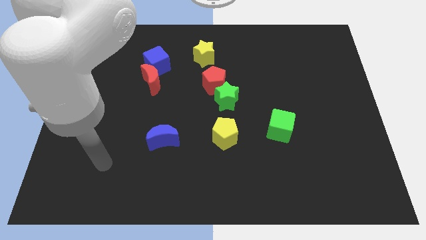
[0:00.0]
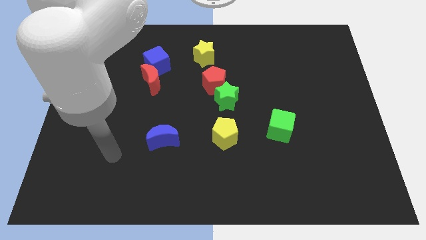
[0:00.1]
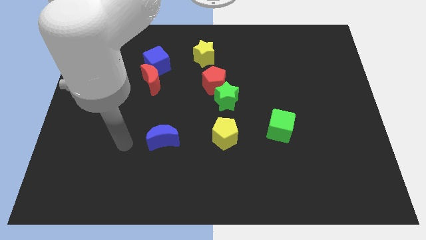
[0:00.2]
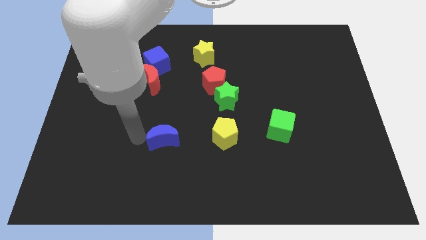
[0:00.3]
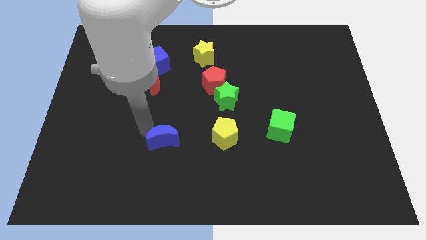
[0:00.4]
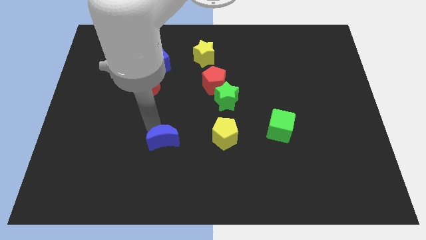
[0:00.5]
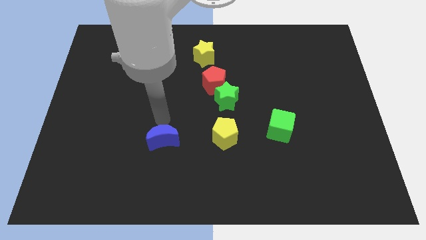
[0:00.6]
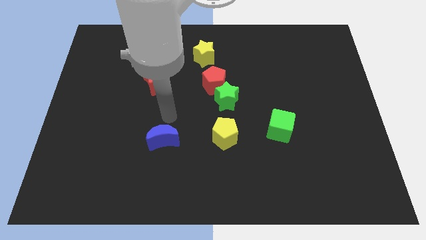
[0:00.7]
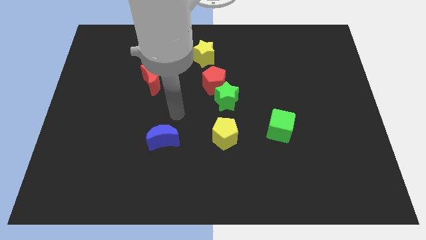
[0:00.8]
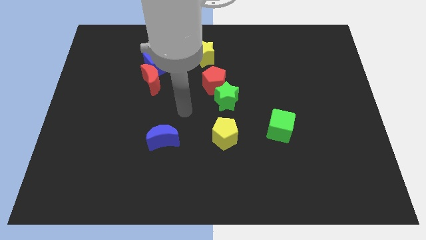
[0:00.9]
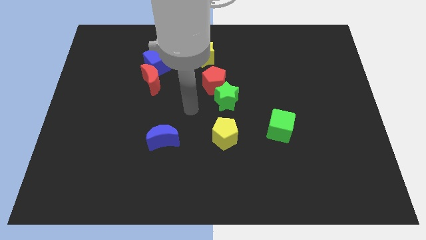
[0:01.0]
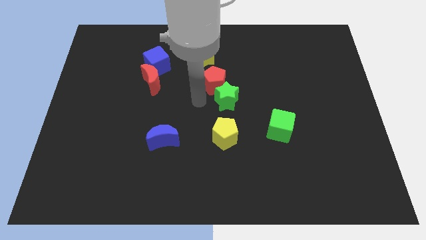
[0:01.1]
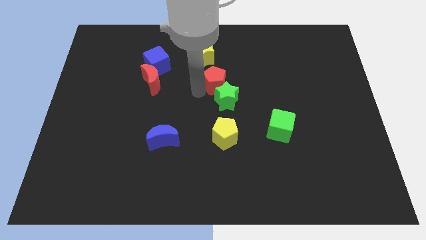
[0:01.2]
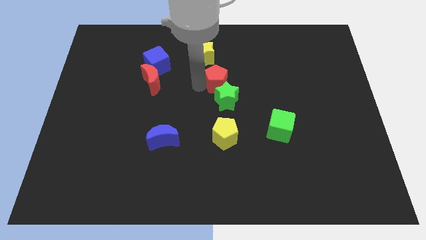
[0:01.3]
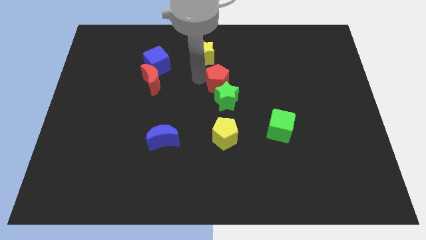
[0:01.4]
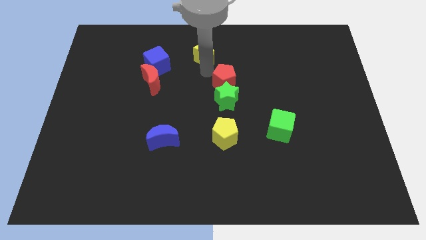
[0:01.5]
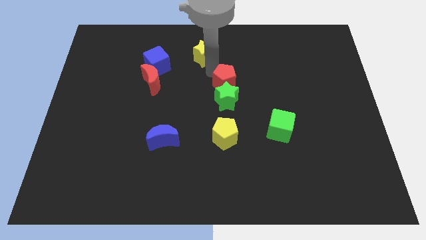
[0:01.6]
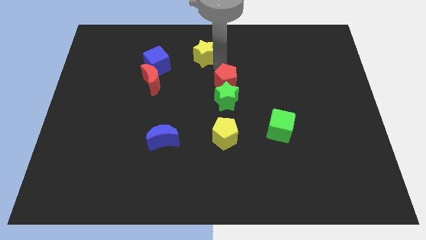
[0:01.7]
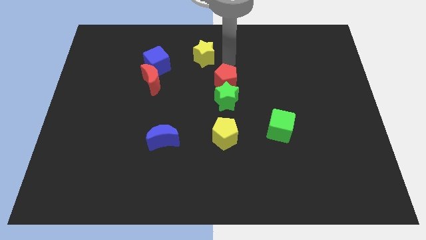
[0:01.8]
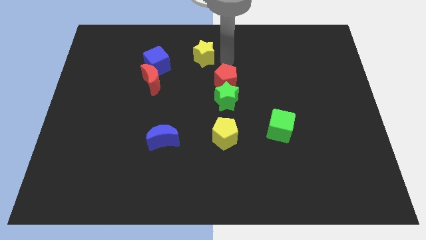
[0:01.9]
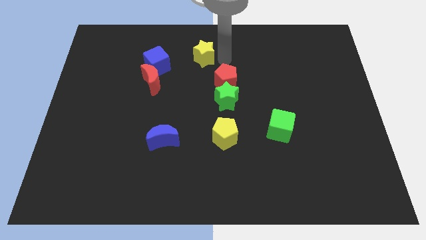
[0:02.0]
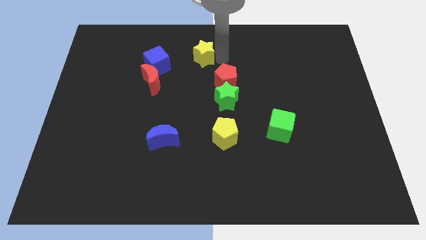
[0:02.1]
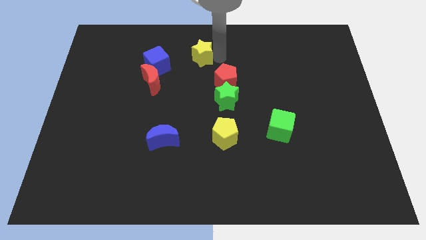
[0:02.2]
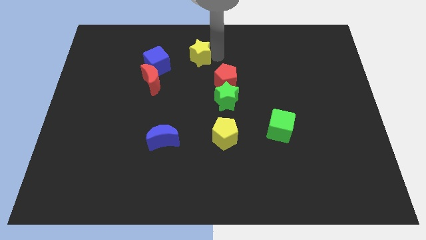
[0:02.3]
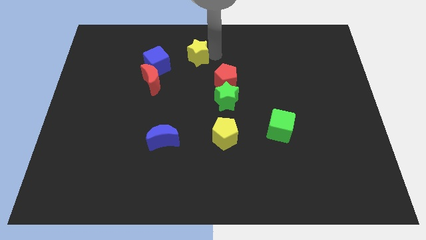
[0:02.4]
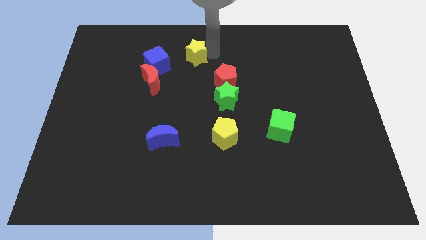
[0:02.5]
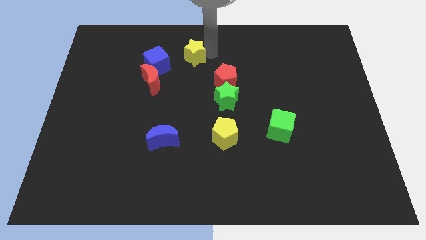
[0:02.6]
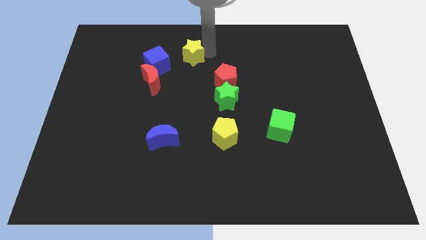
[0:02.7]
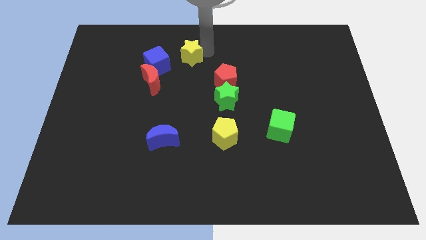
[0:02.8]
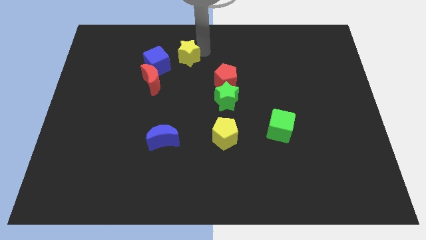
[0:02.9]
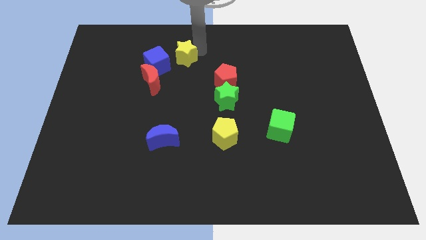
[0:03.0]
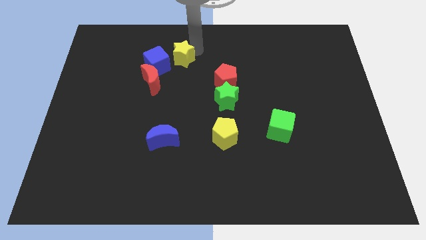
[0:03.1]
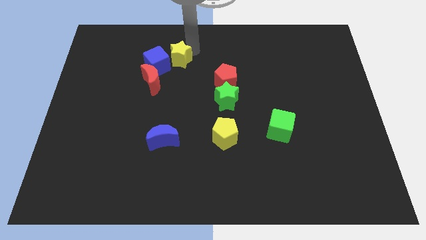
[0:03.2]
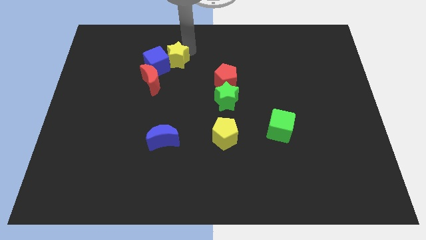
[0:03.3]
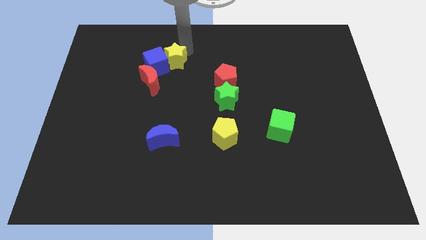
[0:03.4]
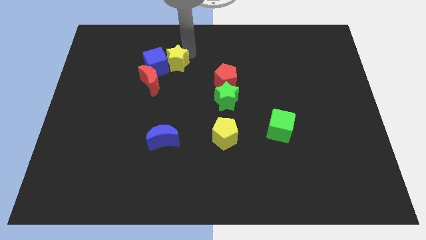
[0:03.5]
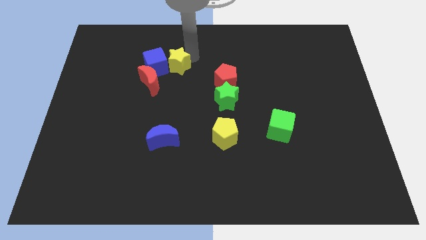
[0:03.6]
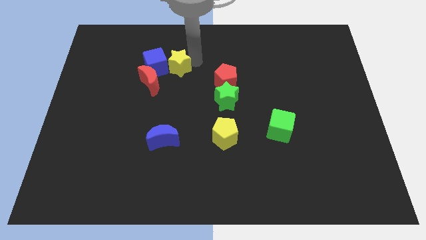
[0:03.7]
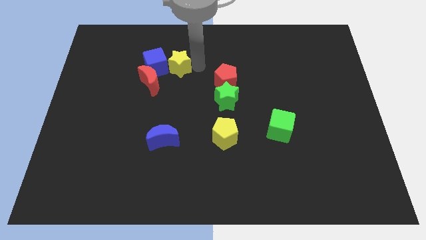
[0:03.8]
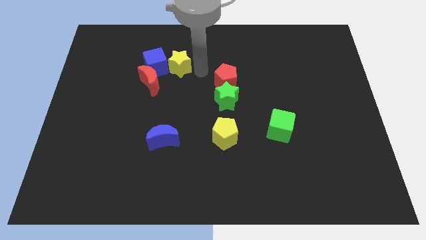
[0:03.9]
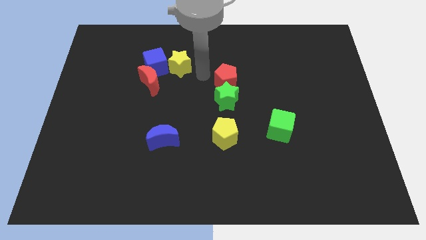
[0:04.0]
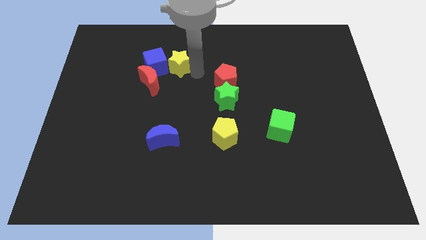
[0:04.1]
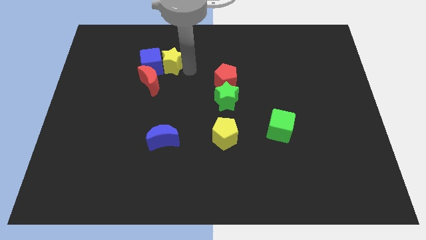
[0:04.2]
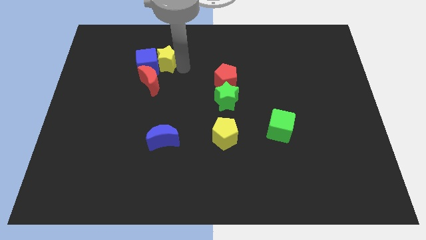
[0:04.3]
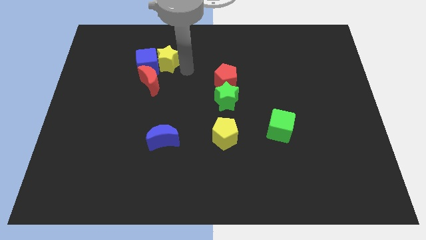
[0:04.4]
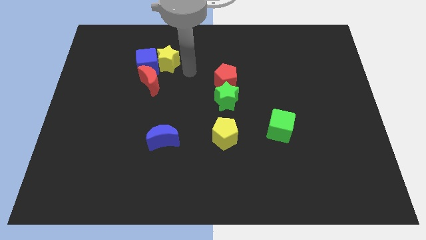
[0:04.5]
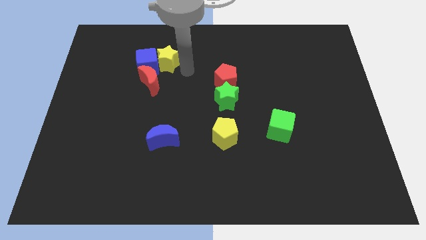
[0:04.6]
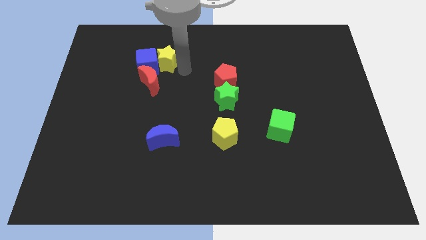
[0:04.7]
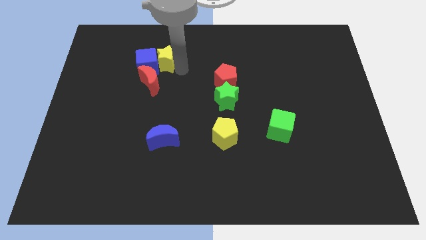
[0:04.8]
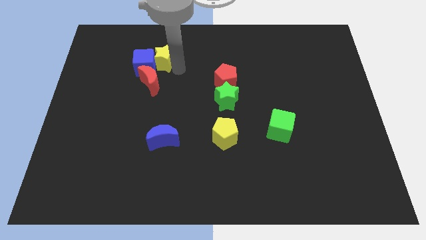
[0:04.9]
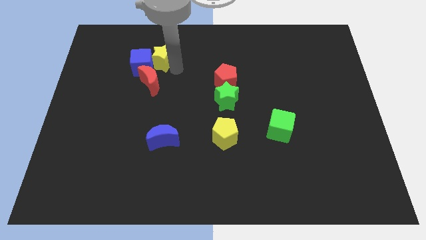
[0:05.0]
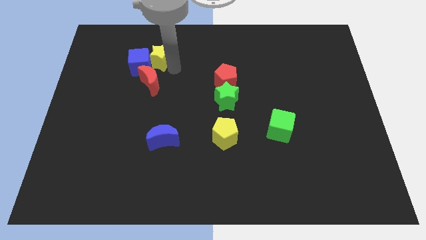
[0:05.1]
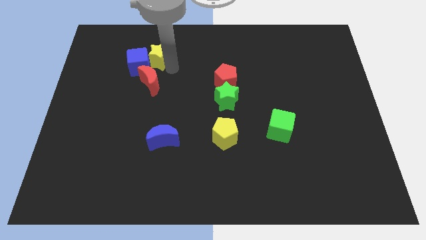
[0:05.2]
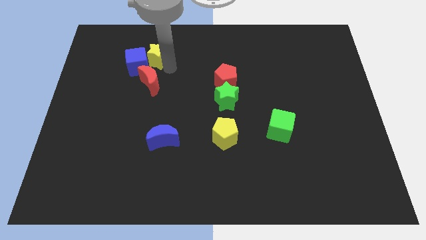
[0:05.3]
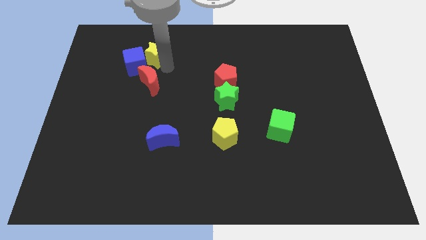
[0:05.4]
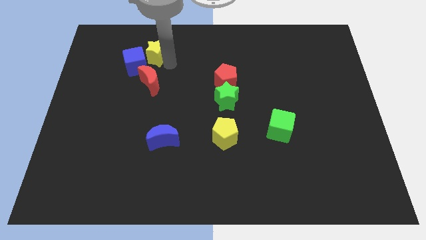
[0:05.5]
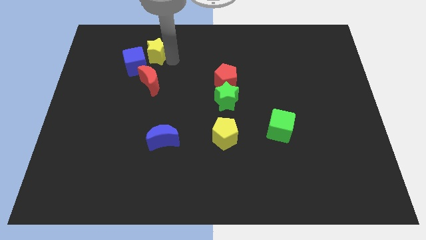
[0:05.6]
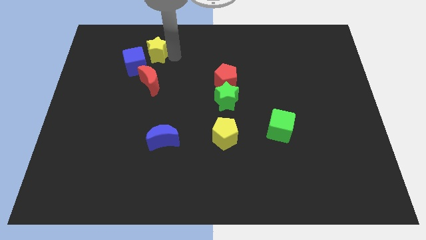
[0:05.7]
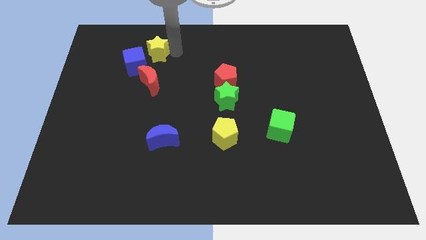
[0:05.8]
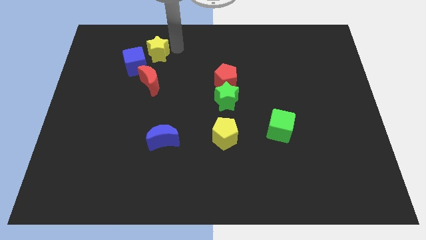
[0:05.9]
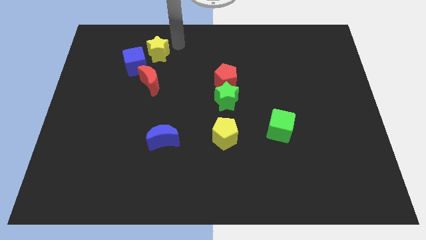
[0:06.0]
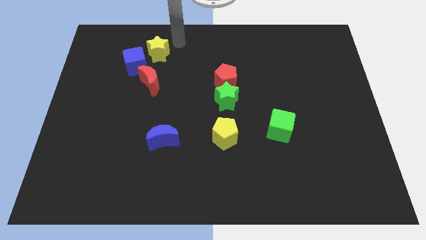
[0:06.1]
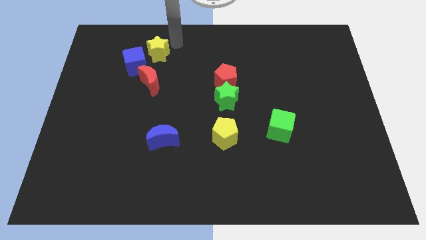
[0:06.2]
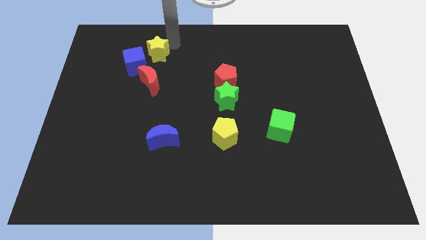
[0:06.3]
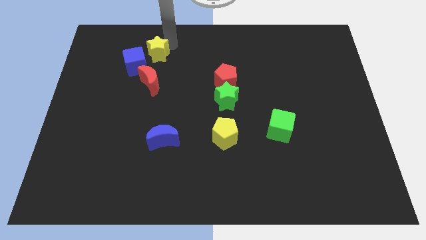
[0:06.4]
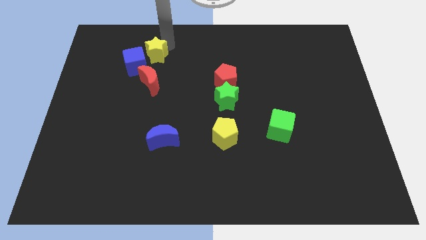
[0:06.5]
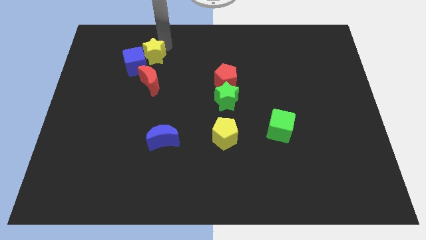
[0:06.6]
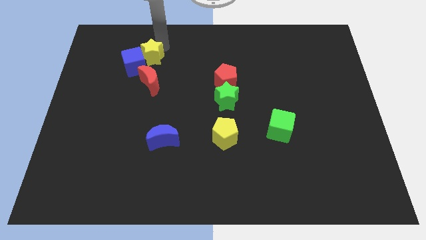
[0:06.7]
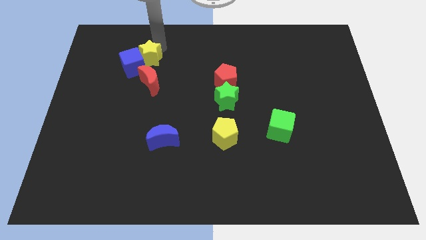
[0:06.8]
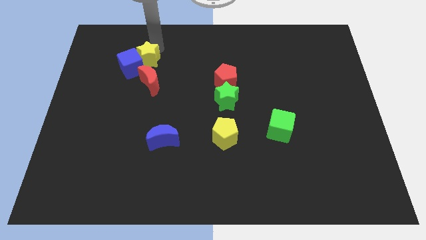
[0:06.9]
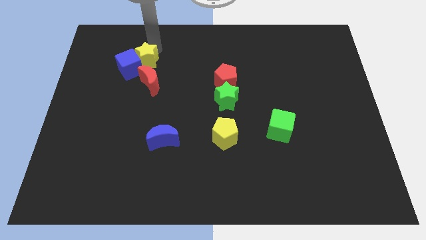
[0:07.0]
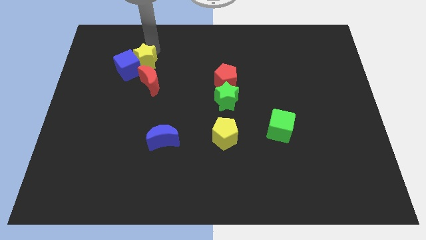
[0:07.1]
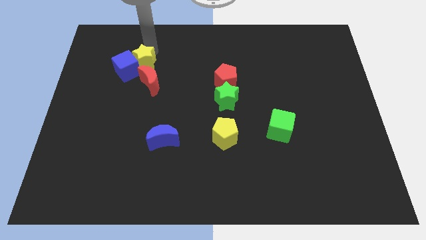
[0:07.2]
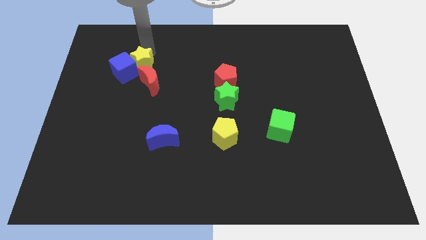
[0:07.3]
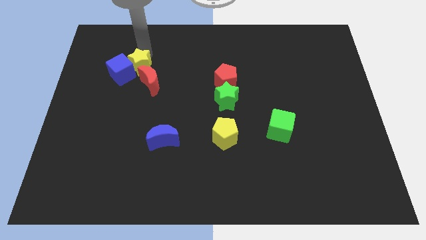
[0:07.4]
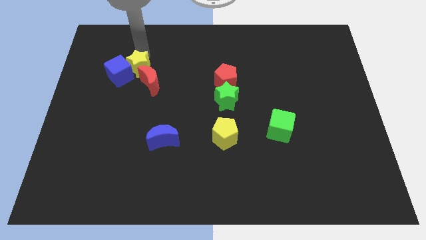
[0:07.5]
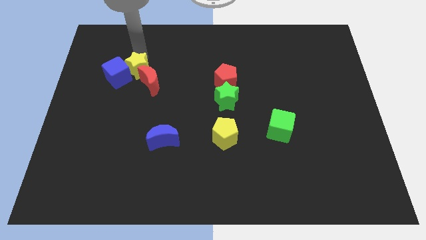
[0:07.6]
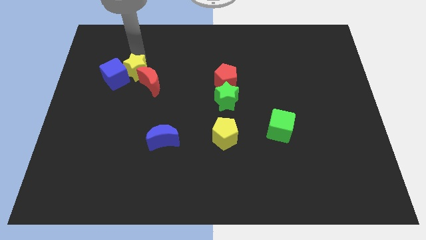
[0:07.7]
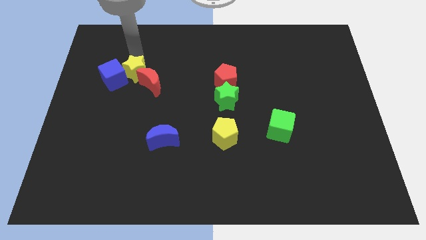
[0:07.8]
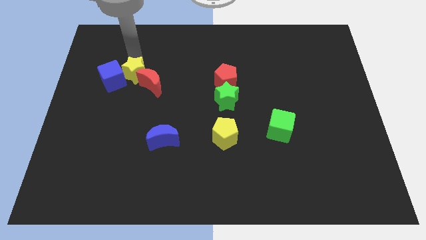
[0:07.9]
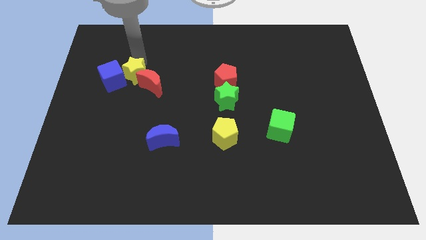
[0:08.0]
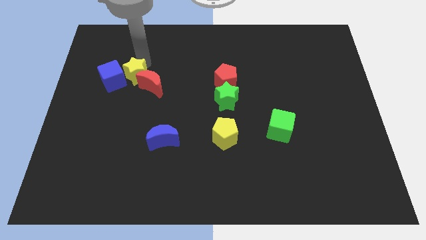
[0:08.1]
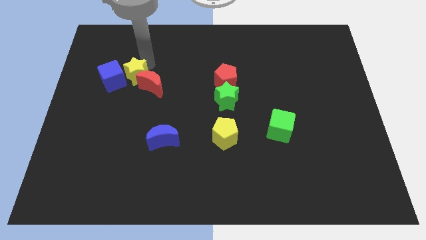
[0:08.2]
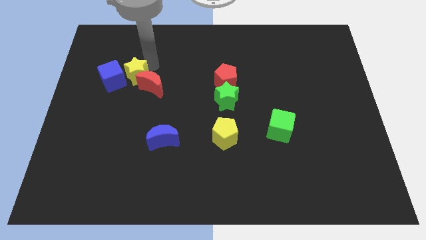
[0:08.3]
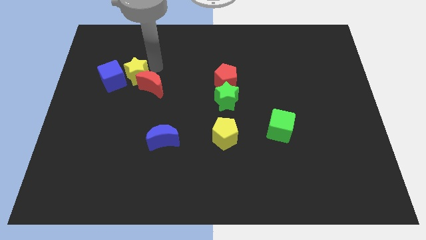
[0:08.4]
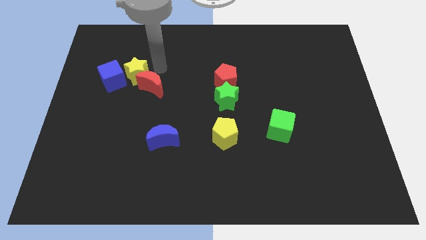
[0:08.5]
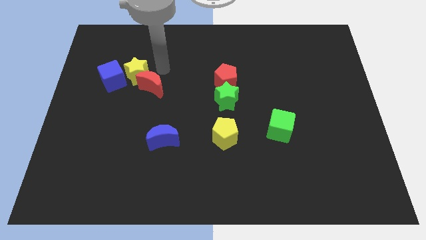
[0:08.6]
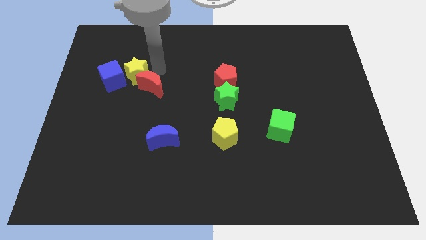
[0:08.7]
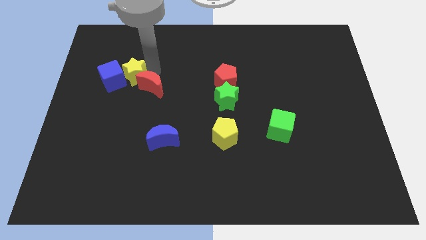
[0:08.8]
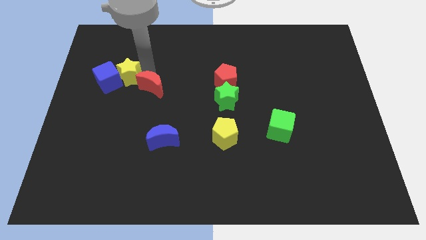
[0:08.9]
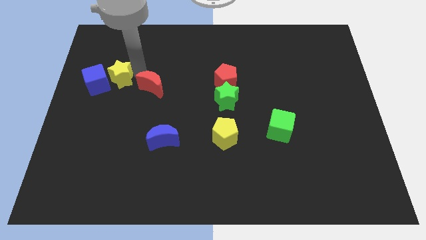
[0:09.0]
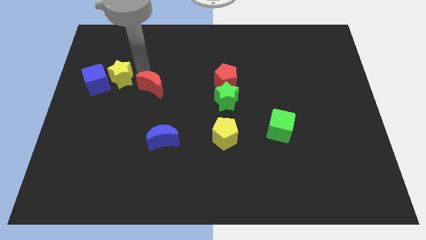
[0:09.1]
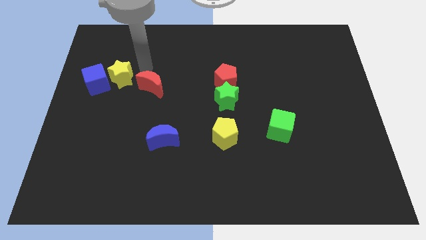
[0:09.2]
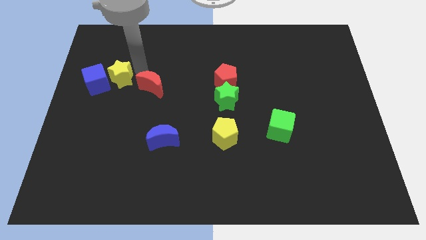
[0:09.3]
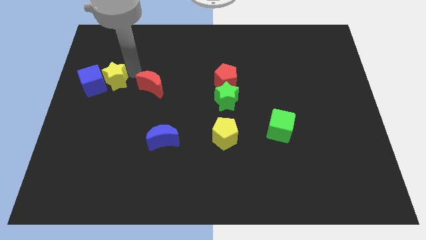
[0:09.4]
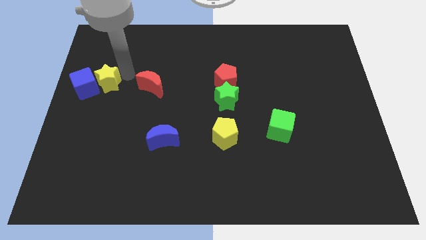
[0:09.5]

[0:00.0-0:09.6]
move the yellow star to the left side of the board
